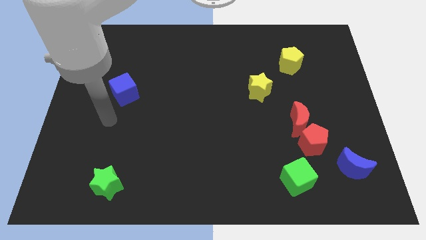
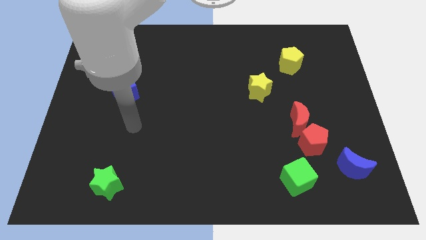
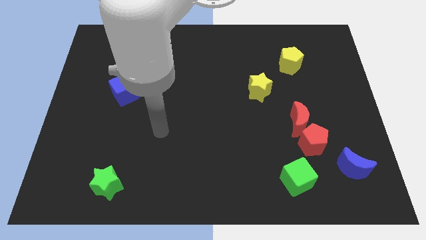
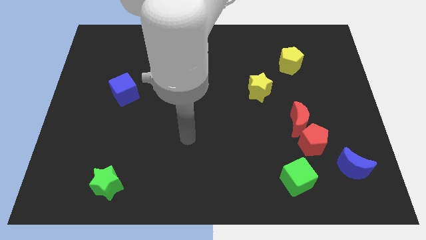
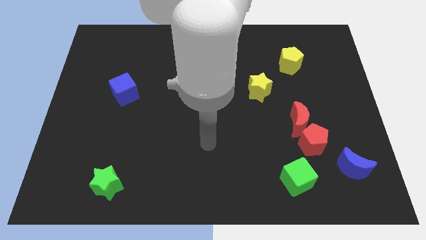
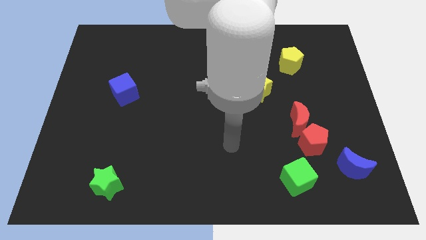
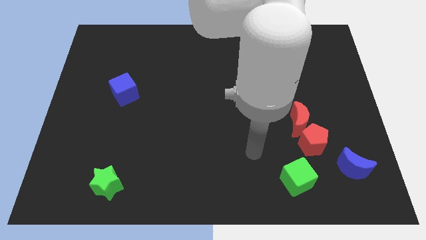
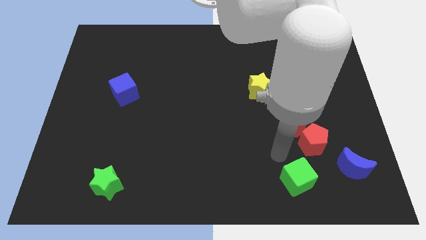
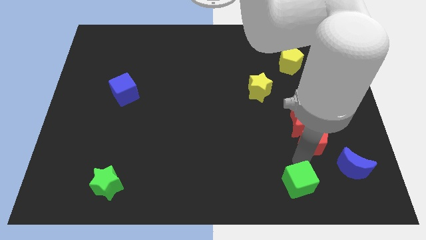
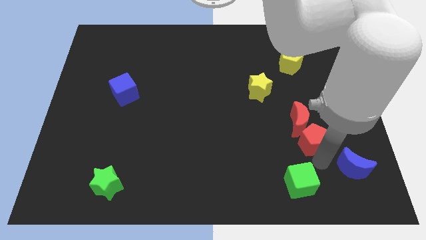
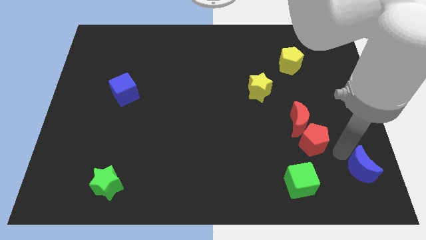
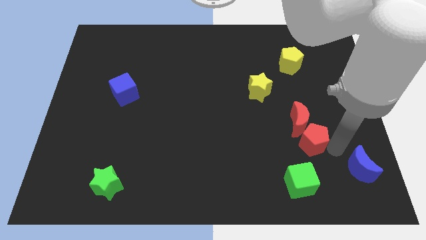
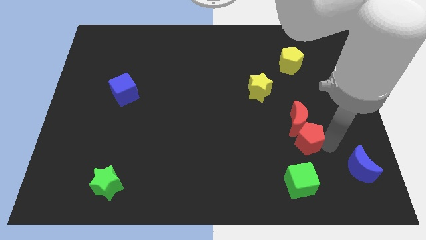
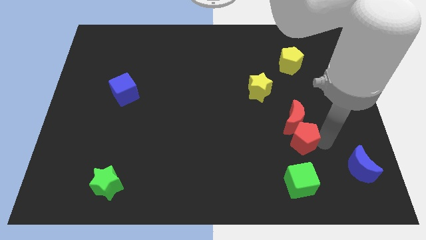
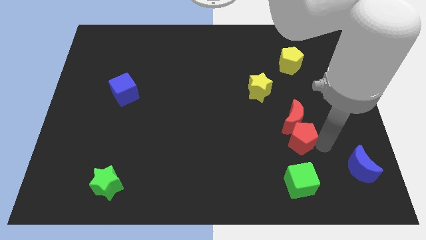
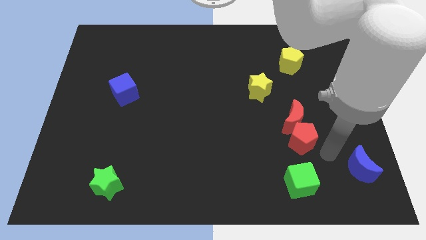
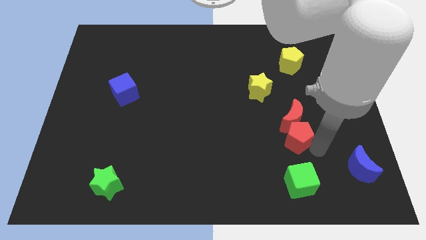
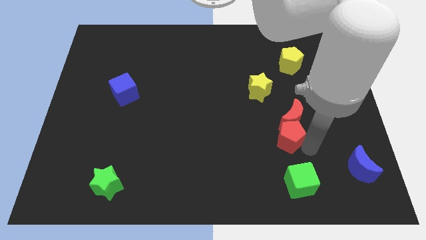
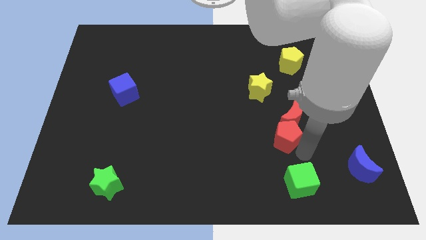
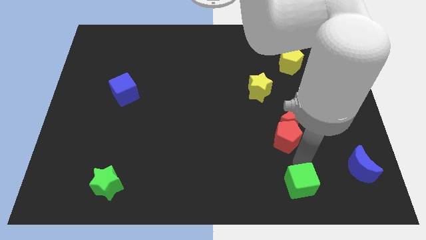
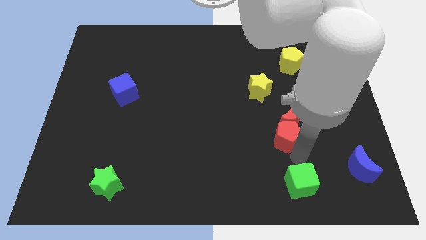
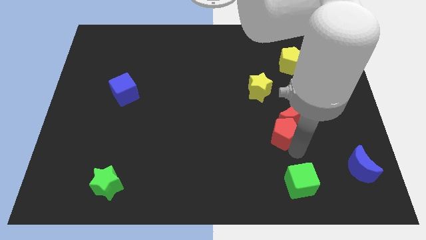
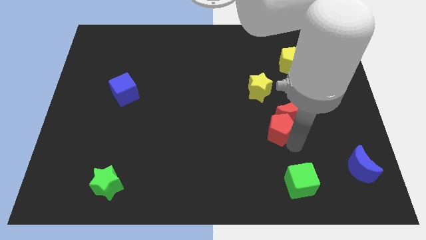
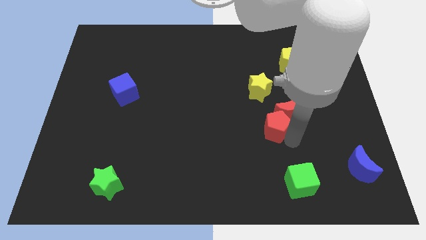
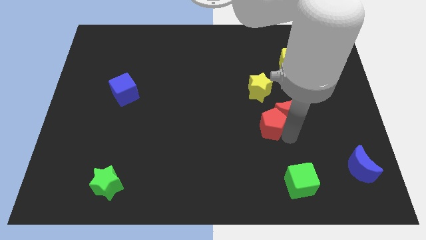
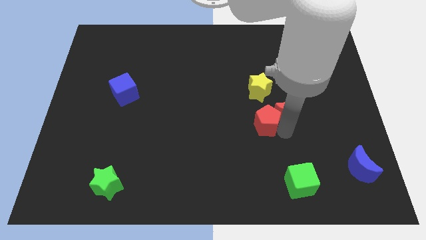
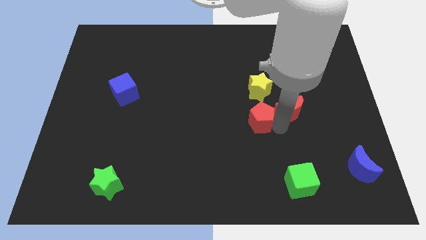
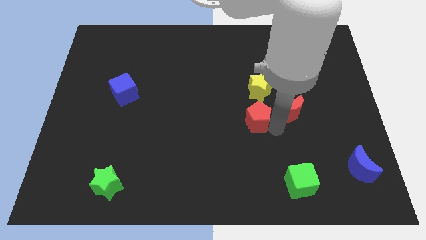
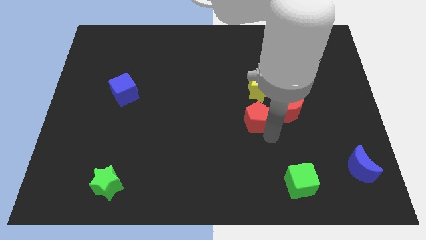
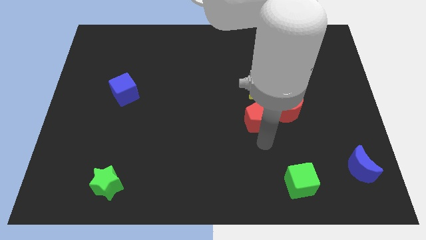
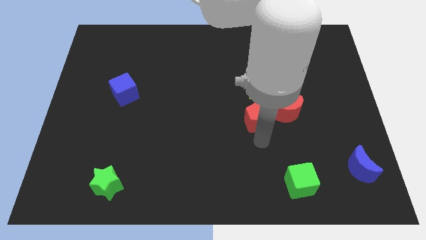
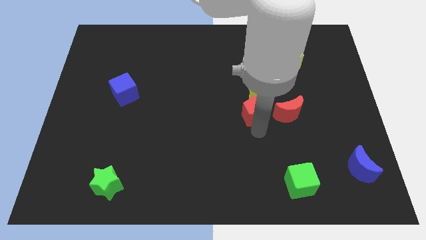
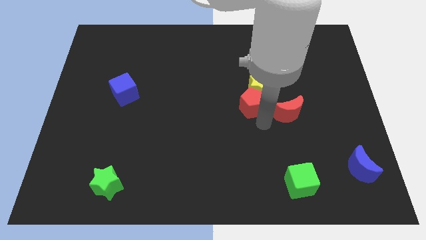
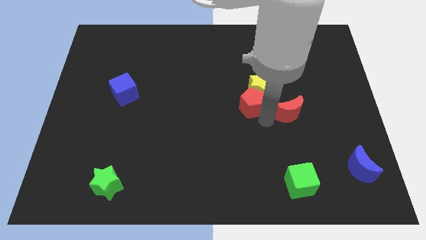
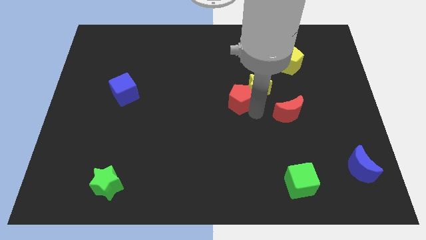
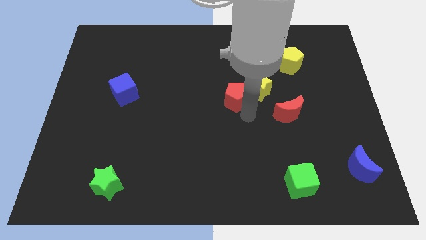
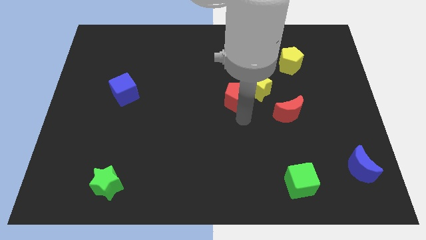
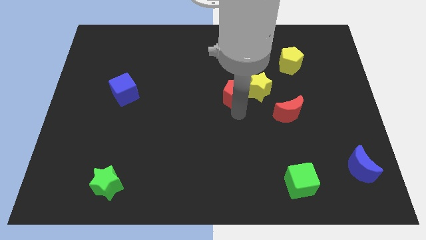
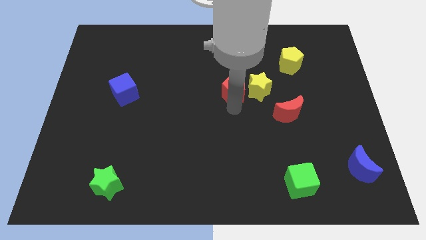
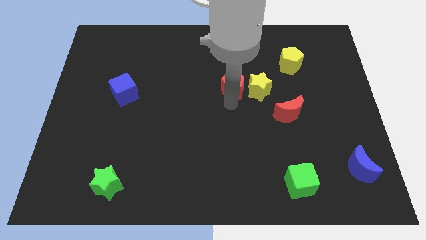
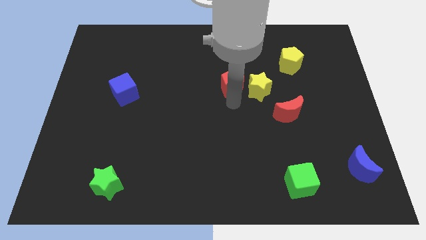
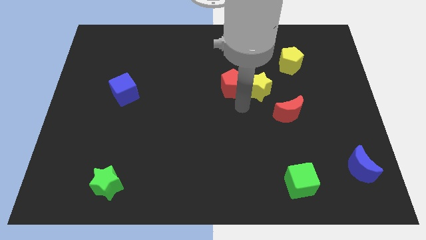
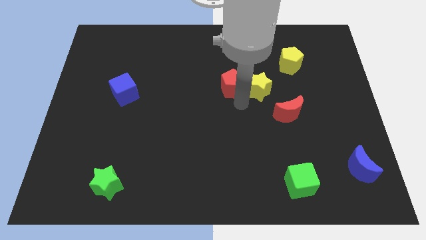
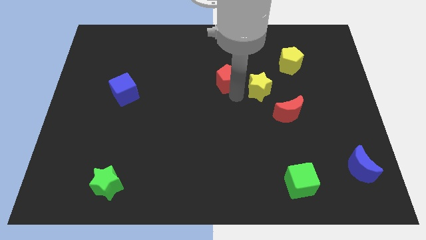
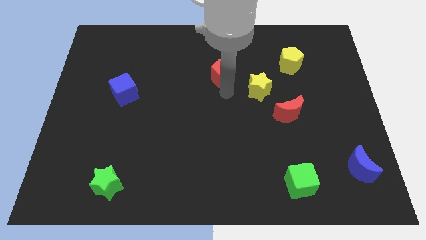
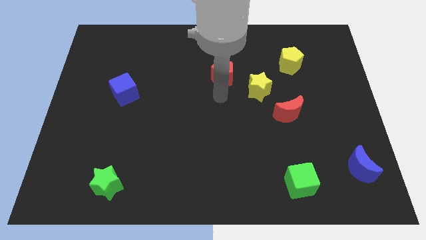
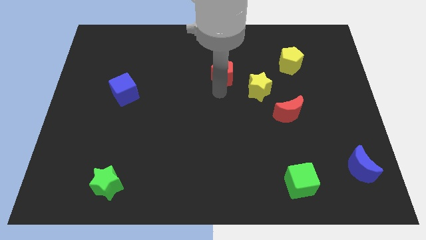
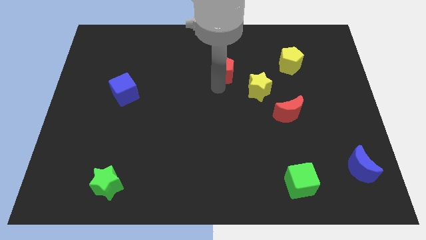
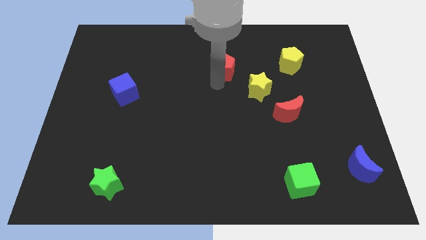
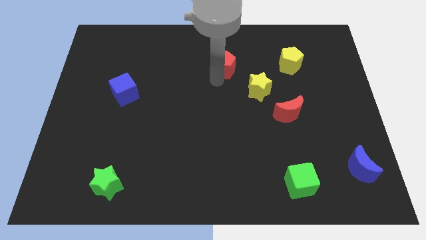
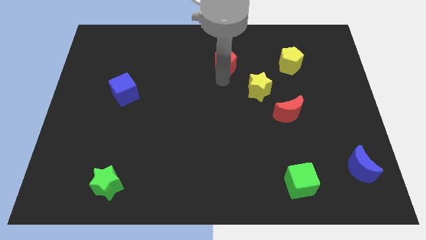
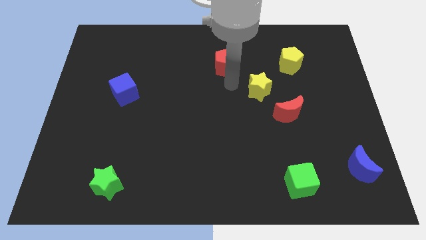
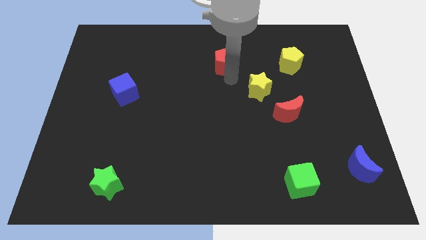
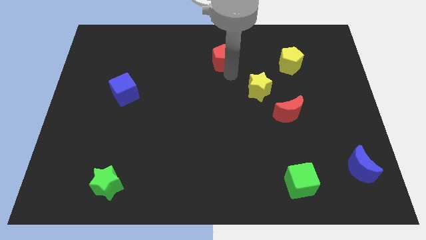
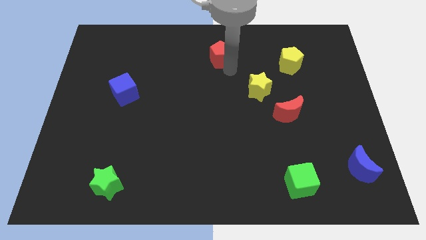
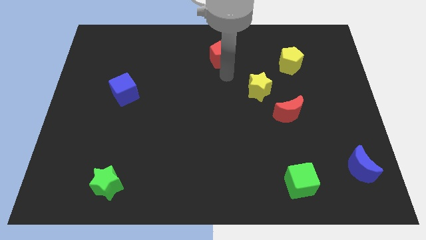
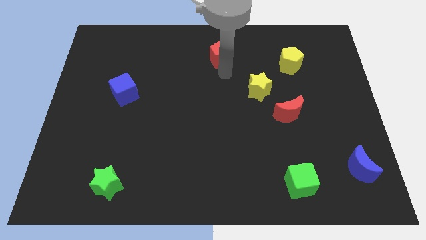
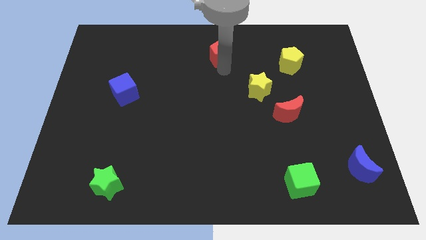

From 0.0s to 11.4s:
put the red pentagon to the towards your base

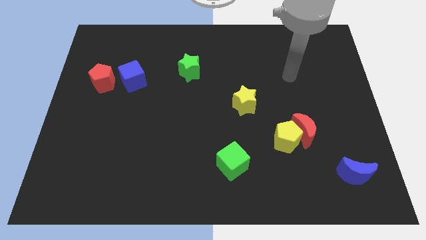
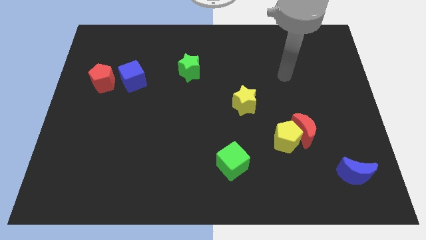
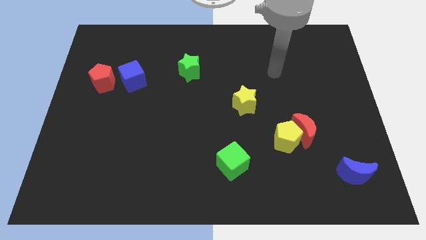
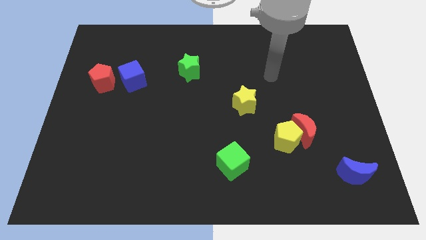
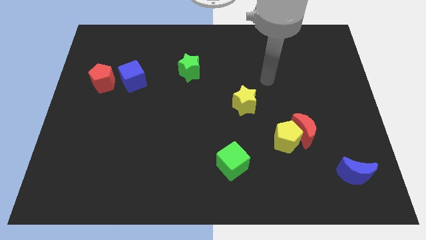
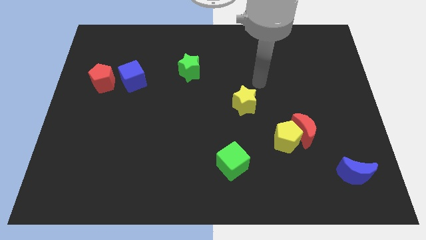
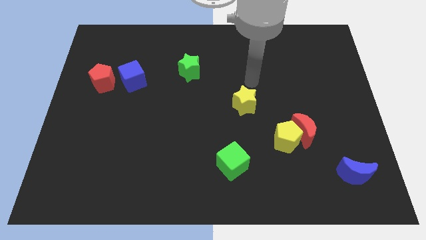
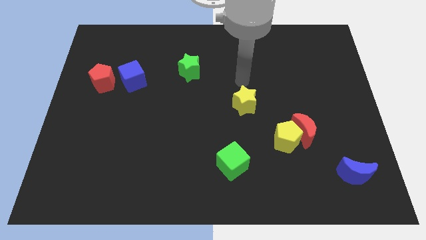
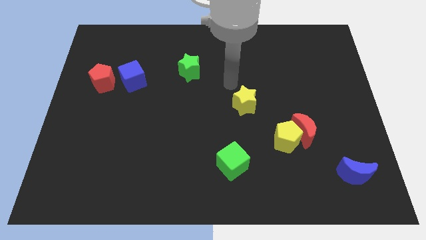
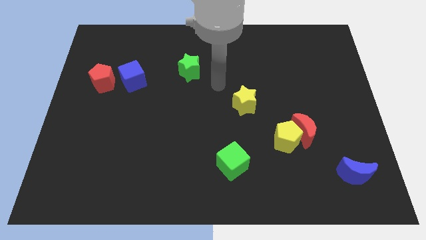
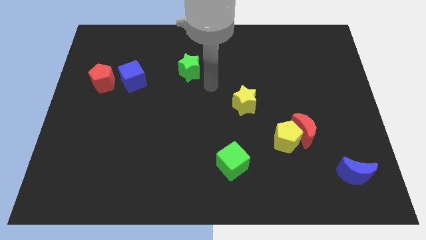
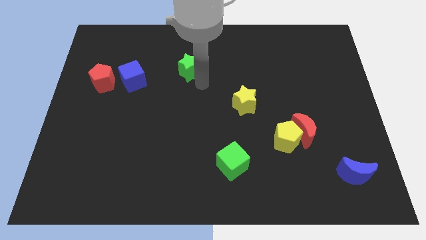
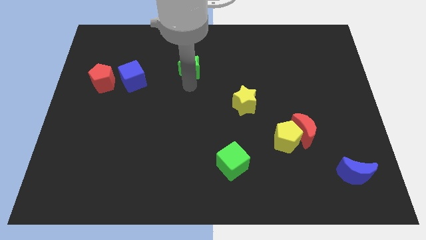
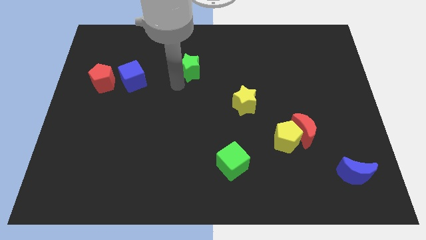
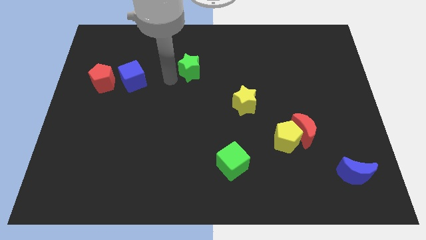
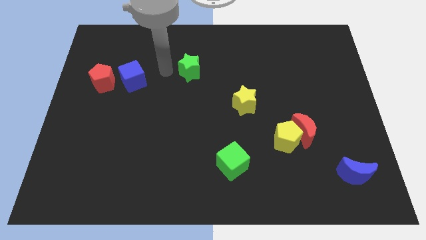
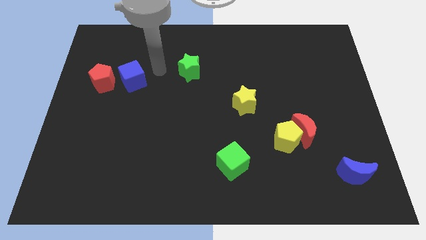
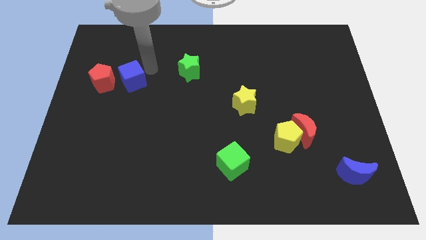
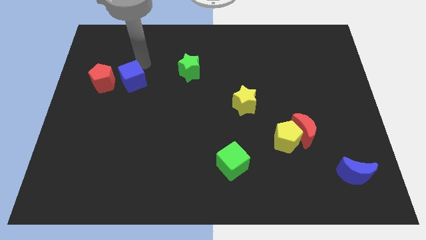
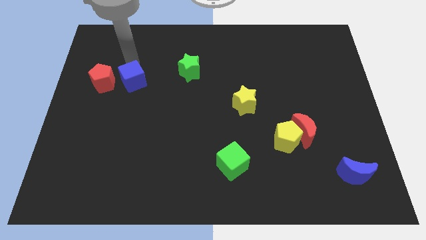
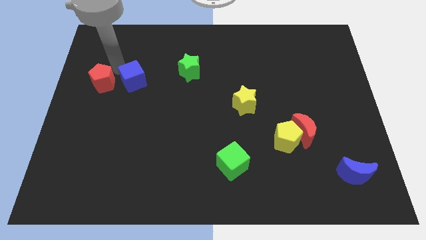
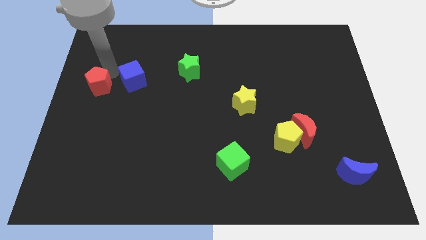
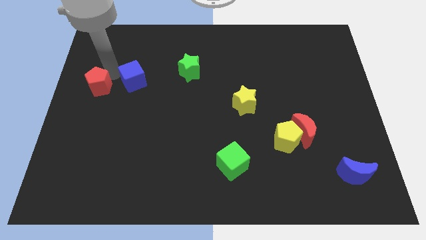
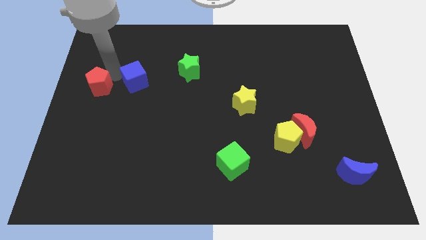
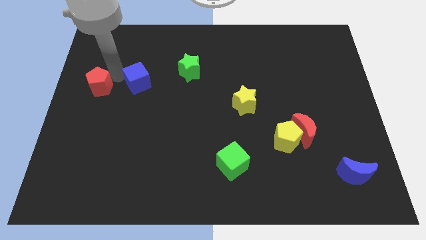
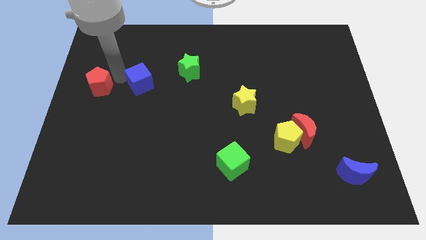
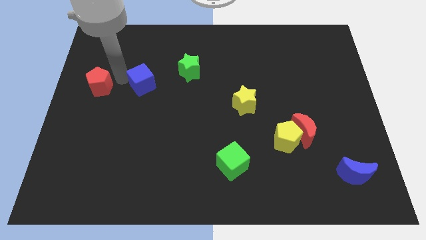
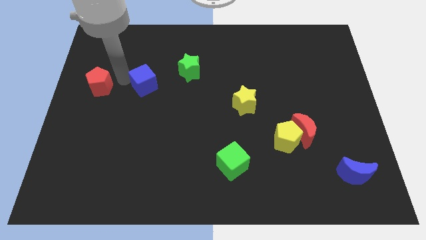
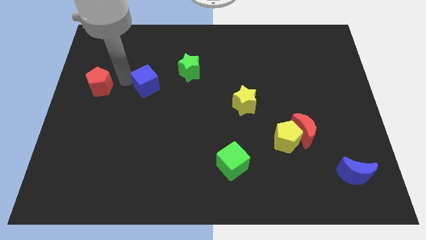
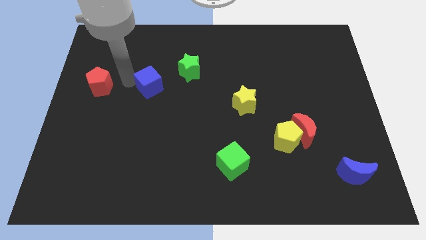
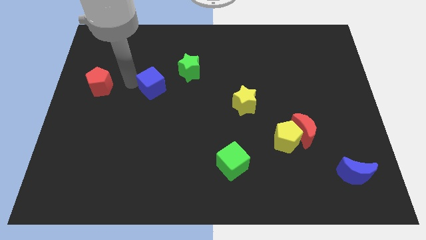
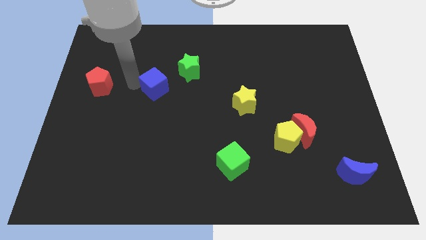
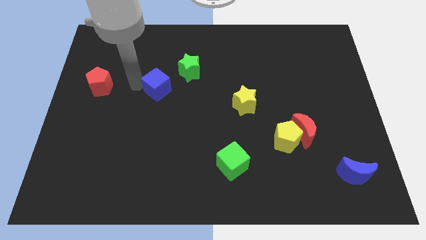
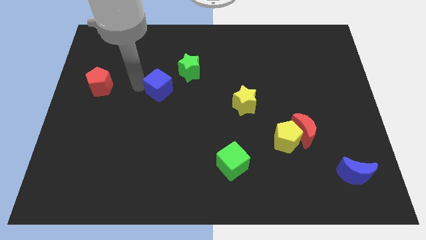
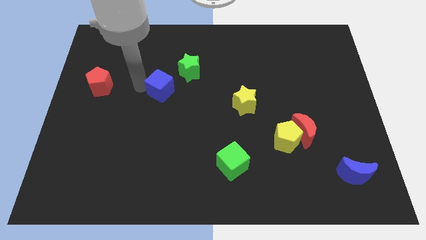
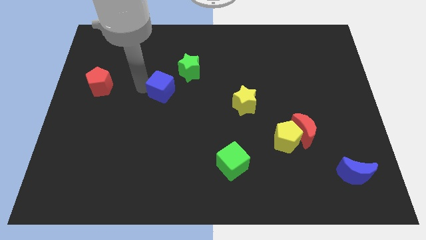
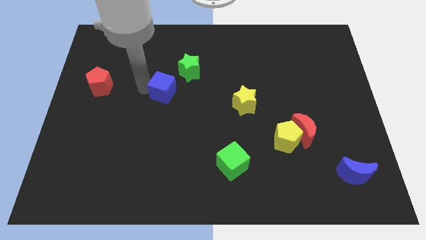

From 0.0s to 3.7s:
put the blue cube to the center of the board
